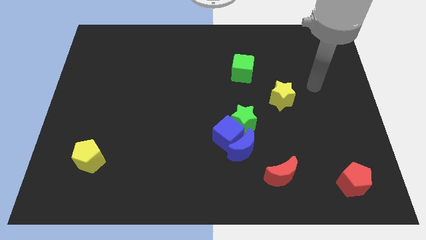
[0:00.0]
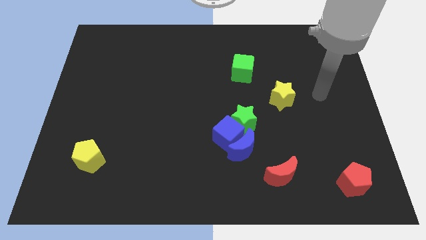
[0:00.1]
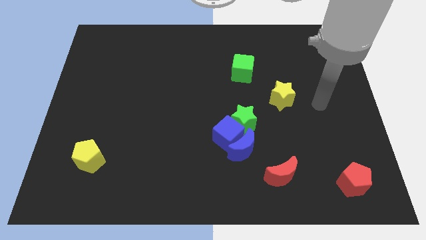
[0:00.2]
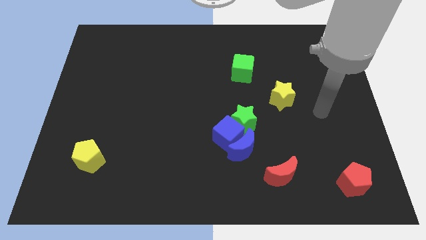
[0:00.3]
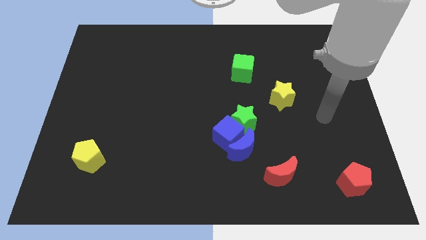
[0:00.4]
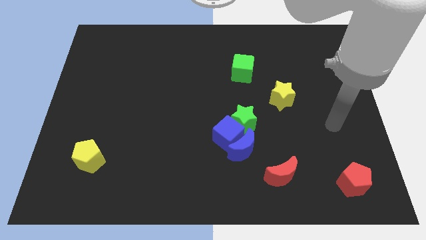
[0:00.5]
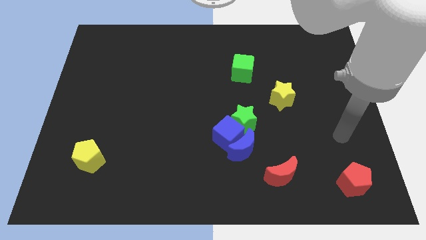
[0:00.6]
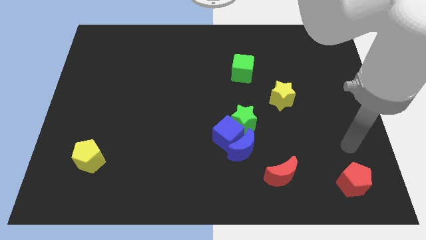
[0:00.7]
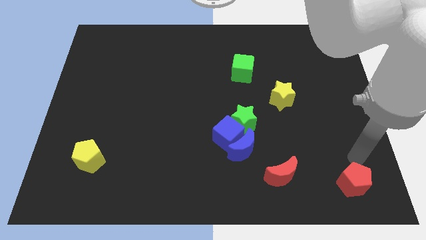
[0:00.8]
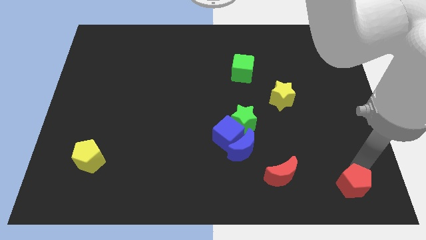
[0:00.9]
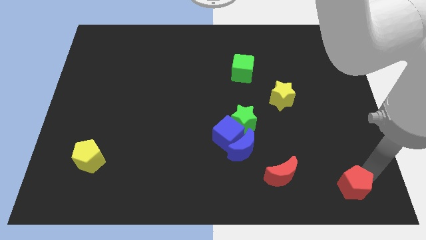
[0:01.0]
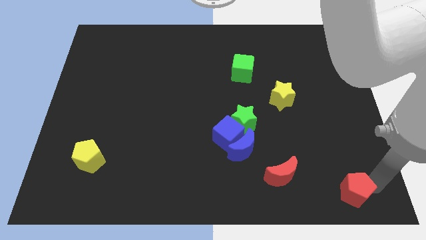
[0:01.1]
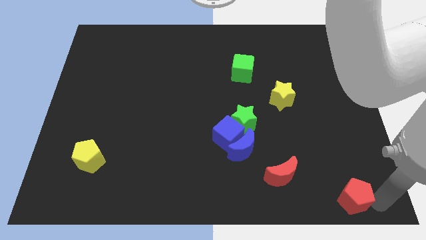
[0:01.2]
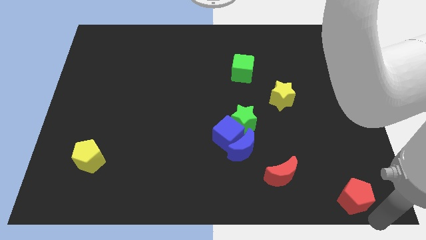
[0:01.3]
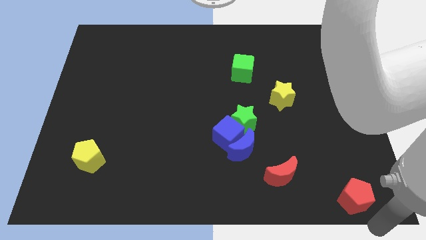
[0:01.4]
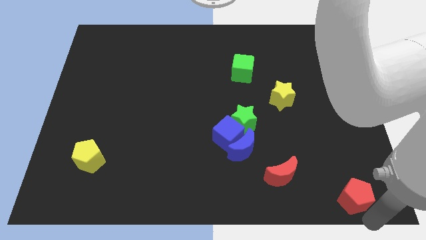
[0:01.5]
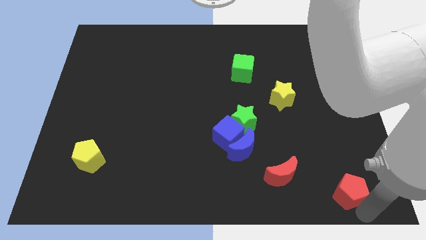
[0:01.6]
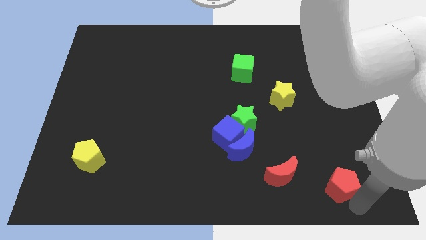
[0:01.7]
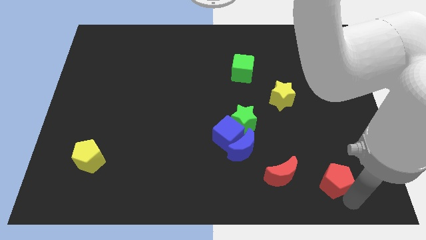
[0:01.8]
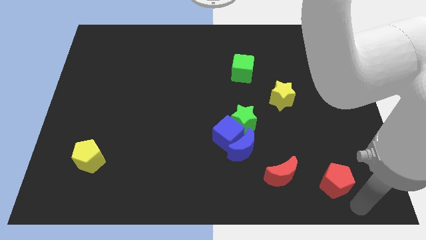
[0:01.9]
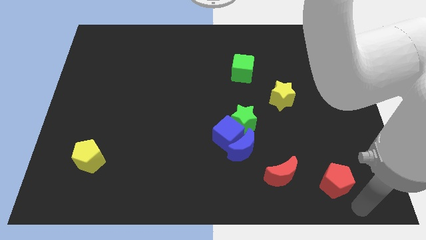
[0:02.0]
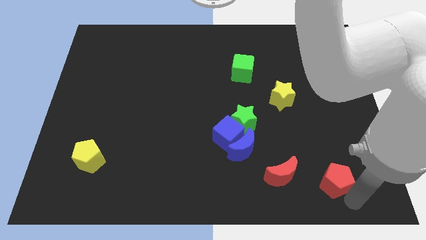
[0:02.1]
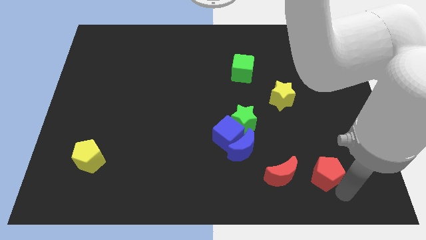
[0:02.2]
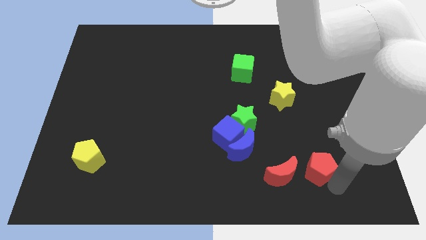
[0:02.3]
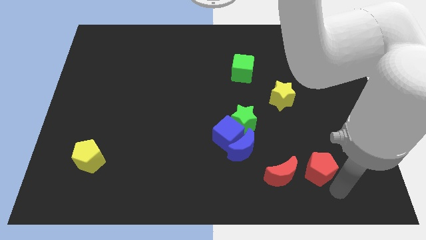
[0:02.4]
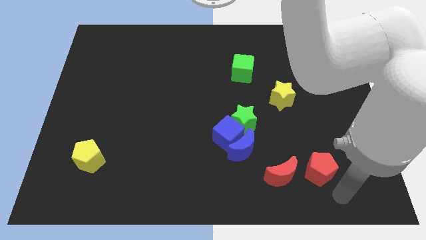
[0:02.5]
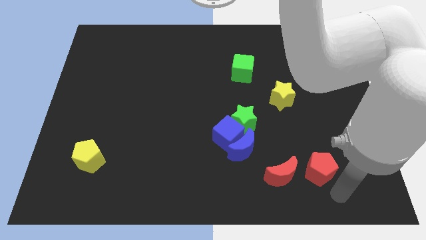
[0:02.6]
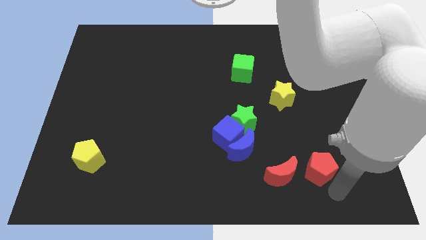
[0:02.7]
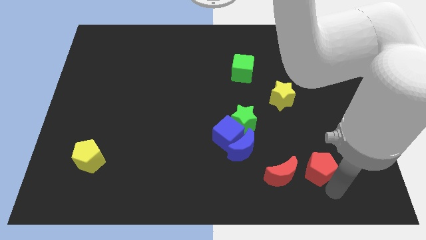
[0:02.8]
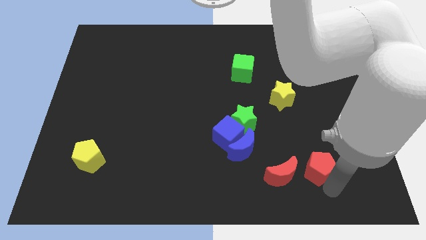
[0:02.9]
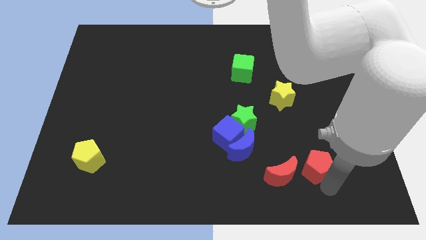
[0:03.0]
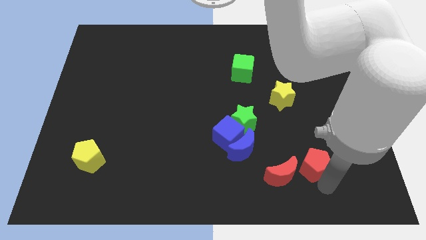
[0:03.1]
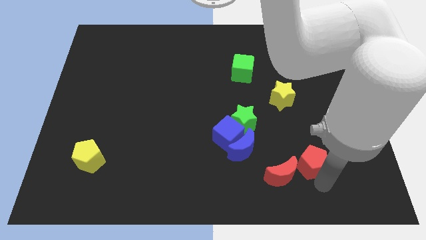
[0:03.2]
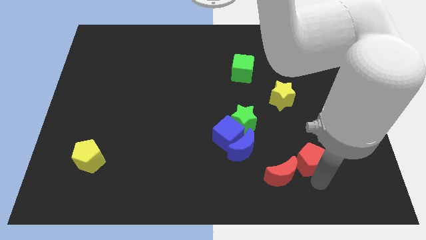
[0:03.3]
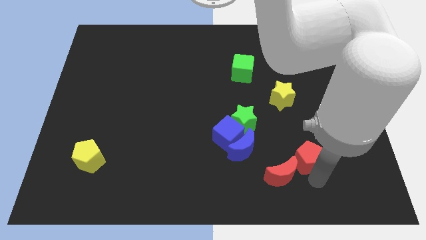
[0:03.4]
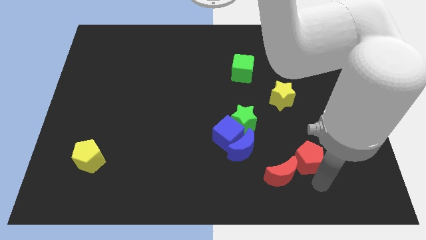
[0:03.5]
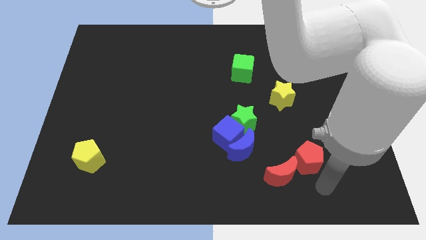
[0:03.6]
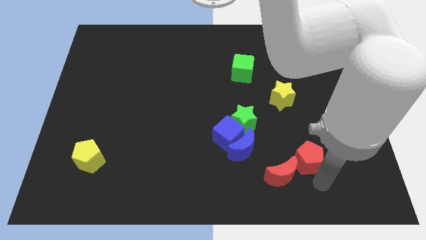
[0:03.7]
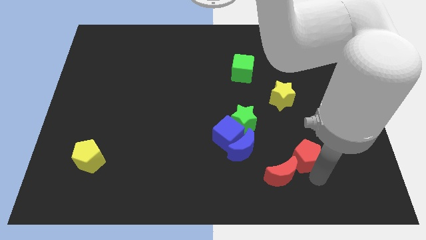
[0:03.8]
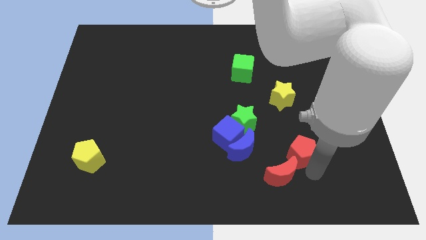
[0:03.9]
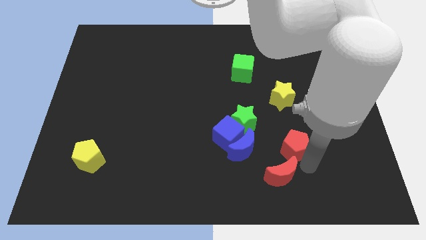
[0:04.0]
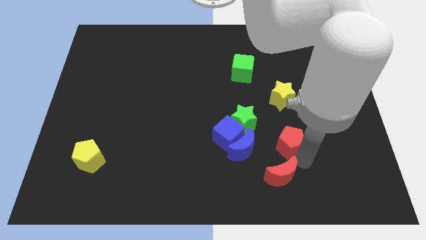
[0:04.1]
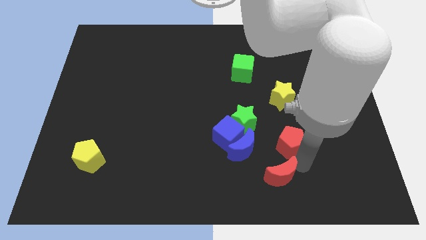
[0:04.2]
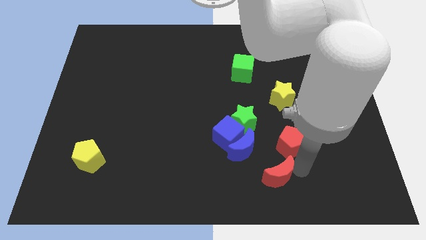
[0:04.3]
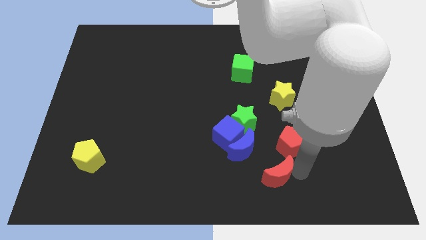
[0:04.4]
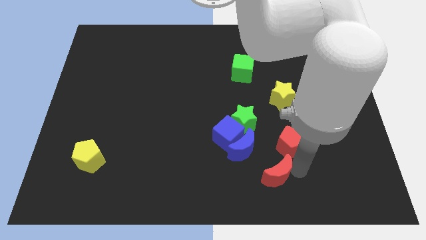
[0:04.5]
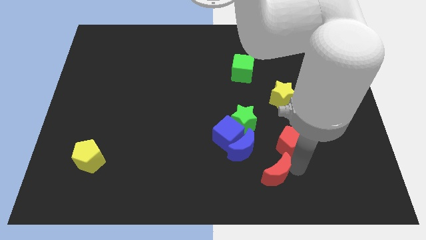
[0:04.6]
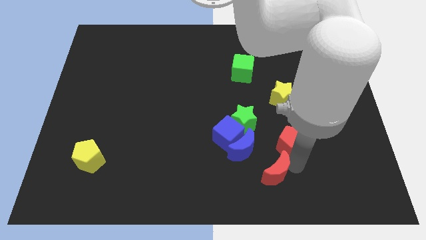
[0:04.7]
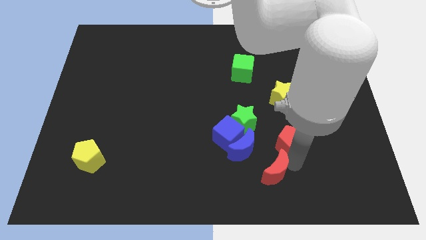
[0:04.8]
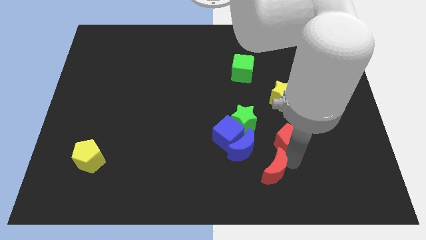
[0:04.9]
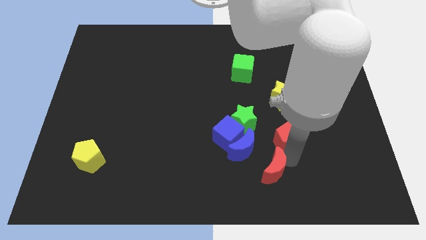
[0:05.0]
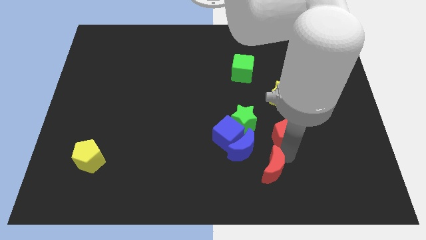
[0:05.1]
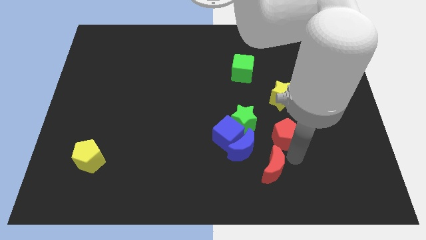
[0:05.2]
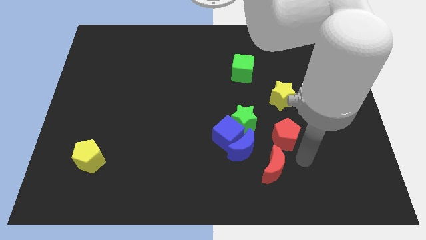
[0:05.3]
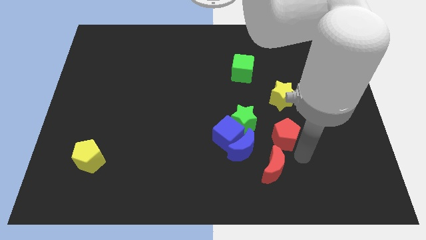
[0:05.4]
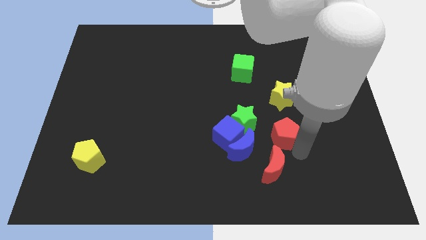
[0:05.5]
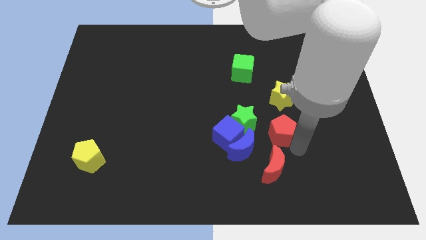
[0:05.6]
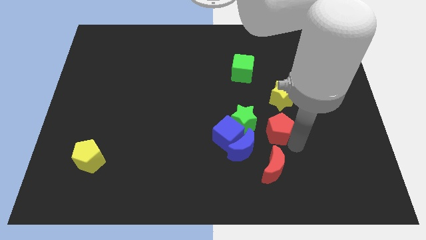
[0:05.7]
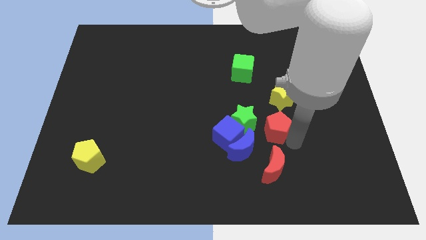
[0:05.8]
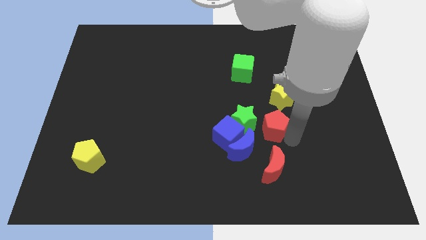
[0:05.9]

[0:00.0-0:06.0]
push the red pentagon up and to the left diagonally

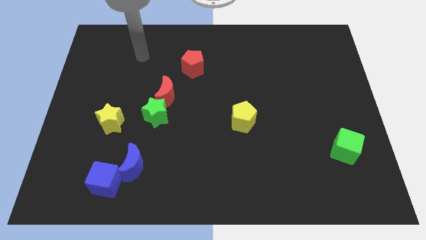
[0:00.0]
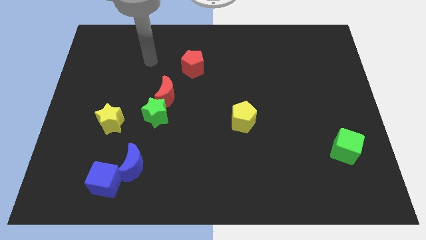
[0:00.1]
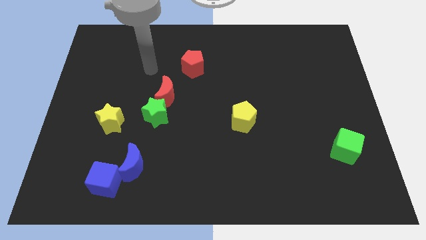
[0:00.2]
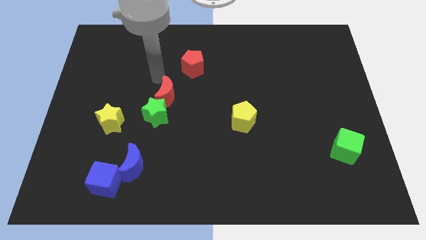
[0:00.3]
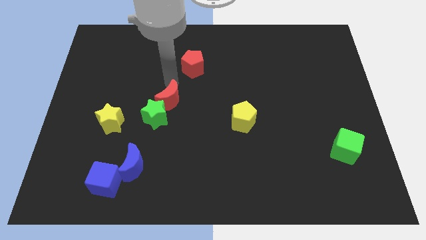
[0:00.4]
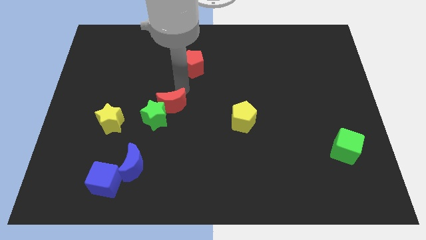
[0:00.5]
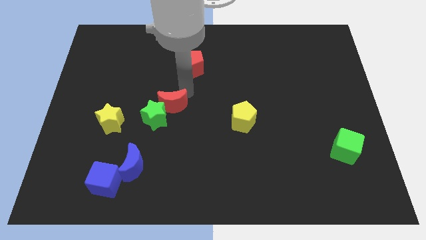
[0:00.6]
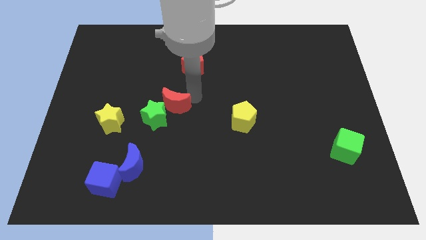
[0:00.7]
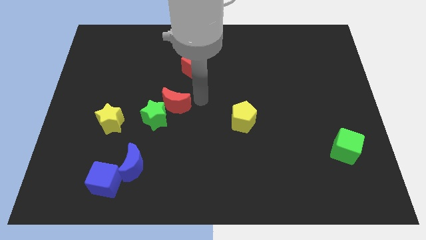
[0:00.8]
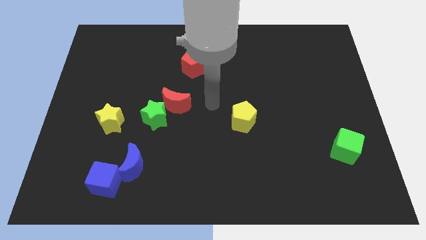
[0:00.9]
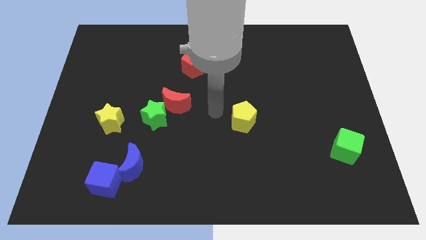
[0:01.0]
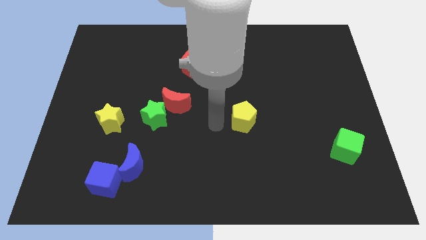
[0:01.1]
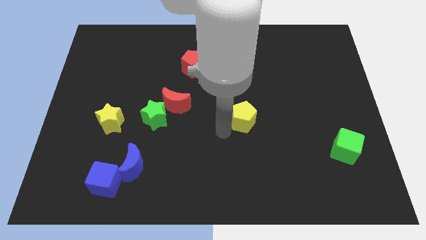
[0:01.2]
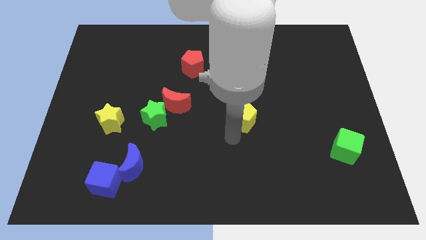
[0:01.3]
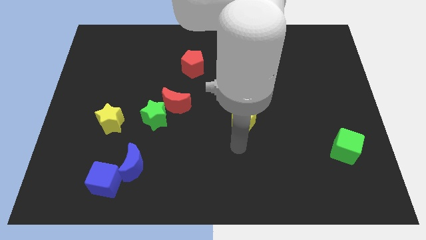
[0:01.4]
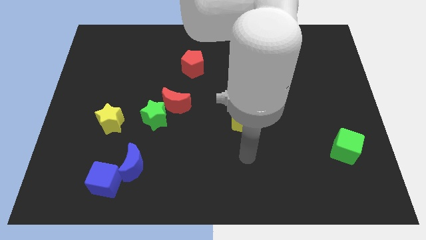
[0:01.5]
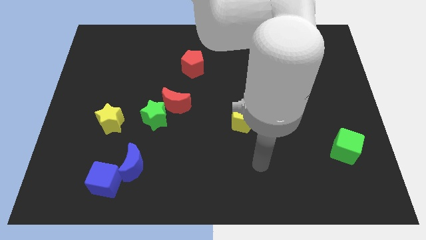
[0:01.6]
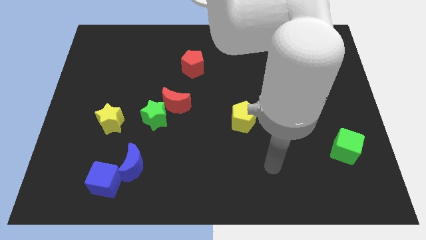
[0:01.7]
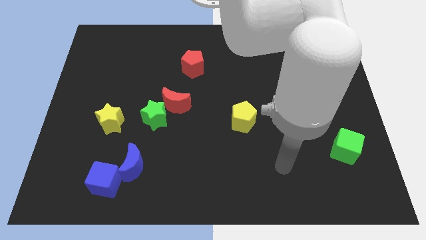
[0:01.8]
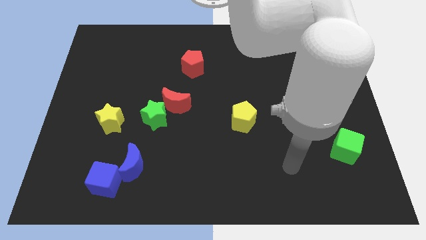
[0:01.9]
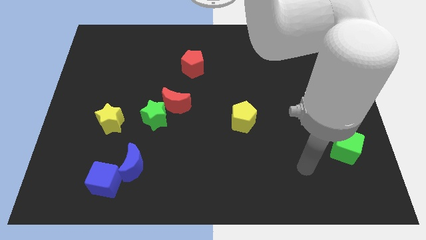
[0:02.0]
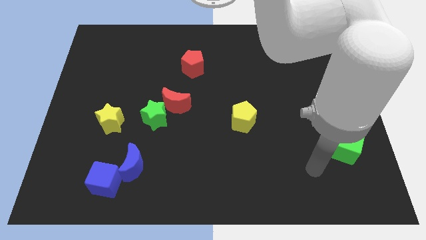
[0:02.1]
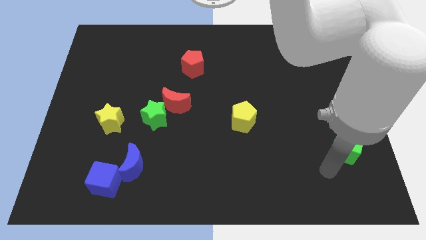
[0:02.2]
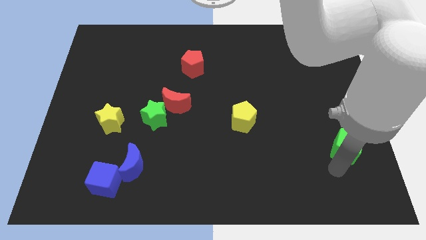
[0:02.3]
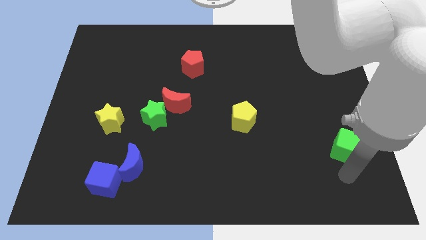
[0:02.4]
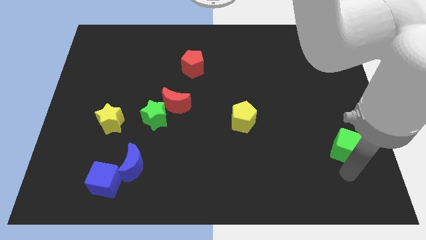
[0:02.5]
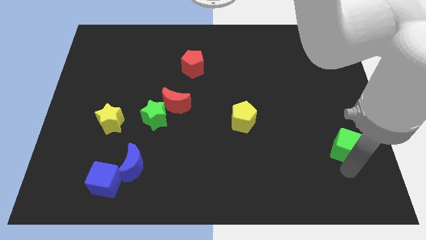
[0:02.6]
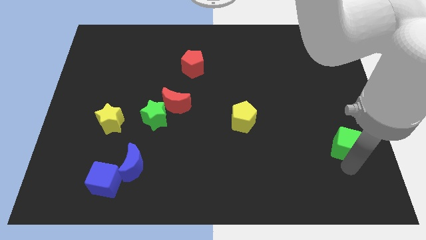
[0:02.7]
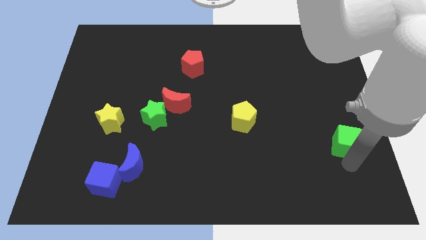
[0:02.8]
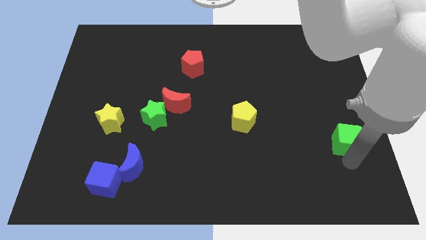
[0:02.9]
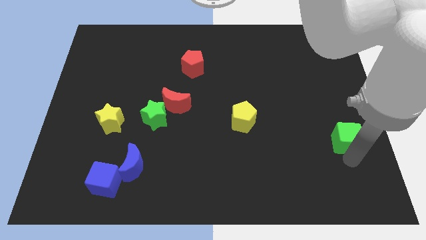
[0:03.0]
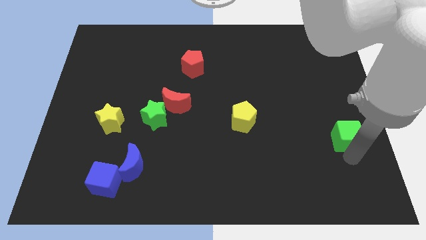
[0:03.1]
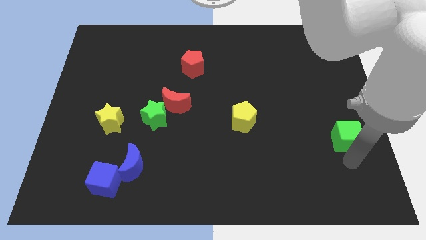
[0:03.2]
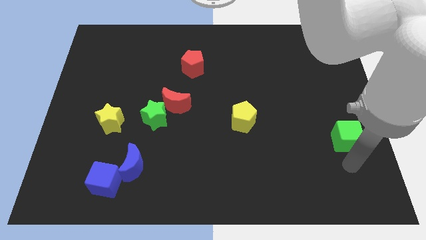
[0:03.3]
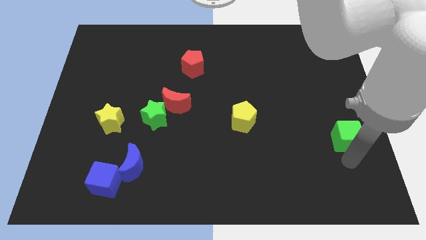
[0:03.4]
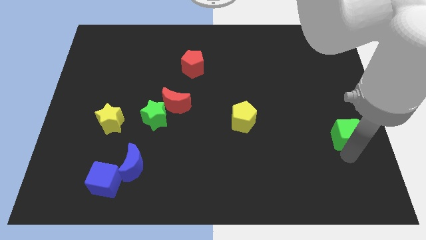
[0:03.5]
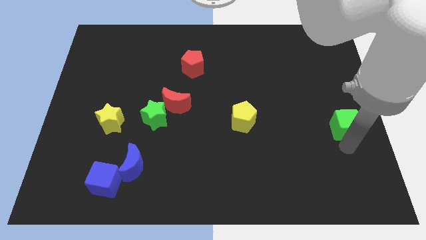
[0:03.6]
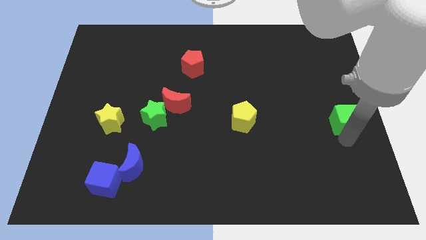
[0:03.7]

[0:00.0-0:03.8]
push the green cube a little up
